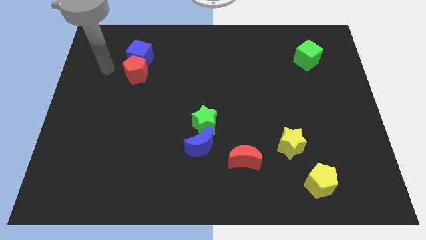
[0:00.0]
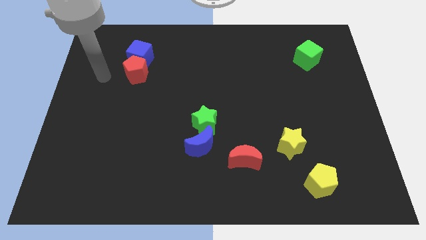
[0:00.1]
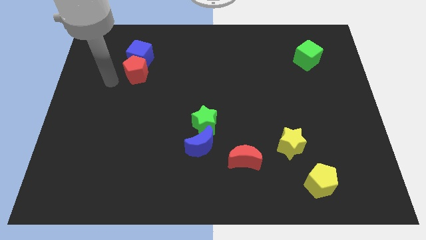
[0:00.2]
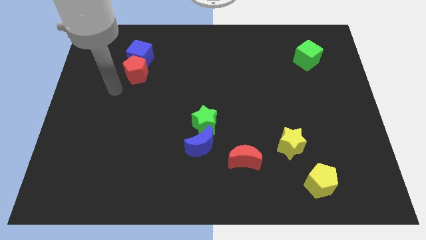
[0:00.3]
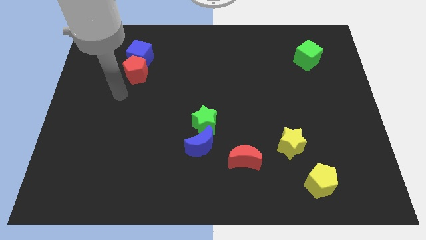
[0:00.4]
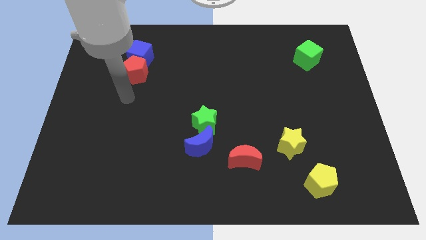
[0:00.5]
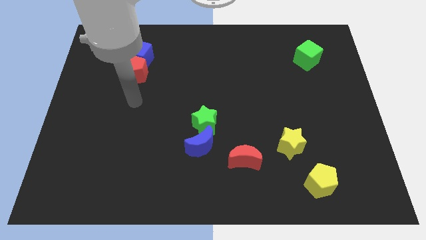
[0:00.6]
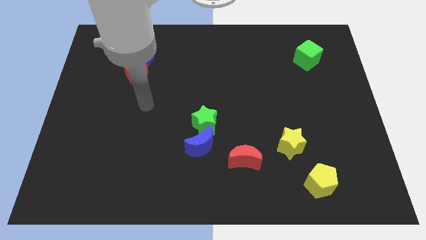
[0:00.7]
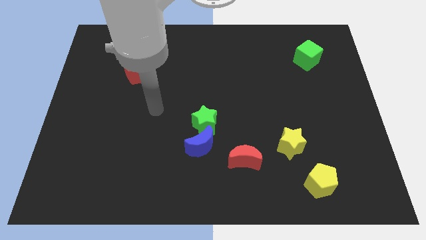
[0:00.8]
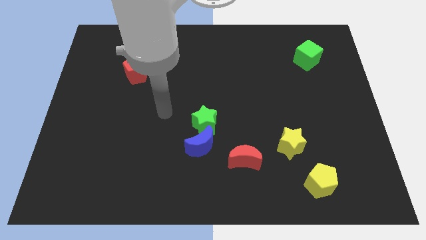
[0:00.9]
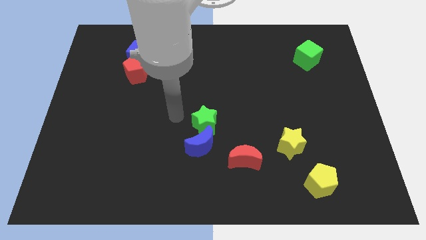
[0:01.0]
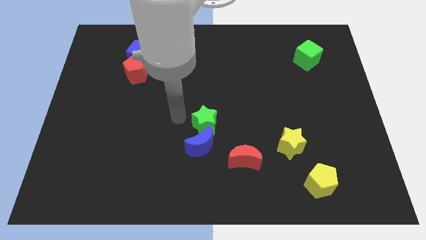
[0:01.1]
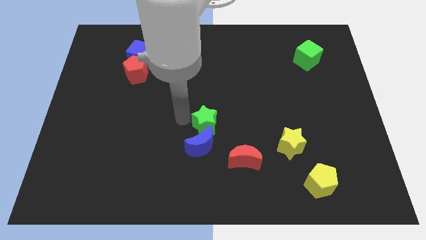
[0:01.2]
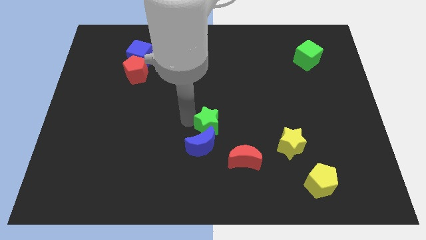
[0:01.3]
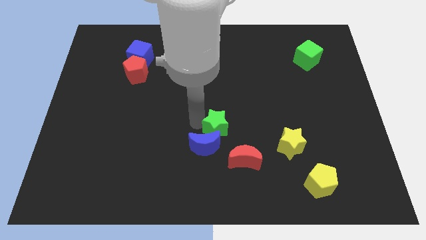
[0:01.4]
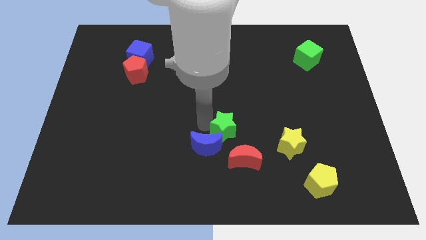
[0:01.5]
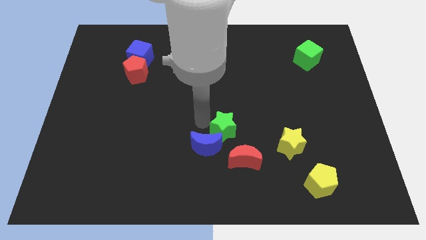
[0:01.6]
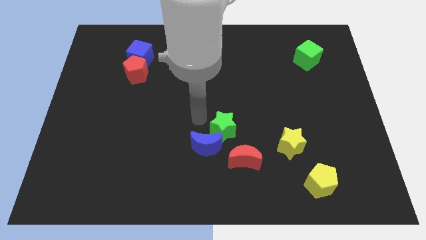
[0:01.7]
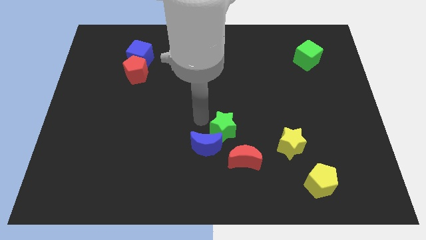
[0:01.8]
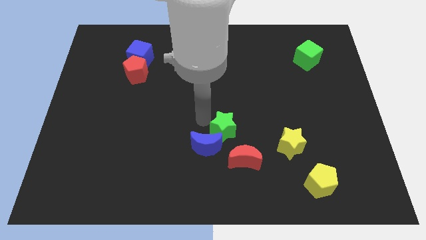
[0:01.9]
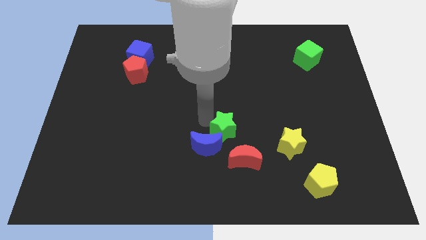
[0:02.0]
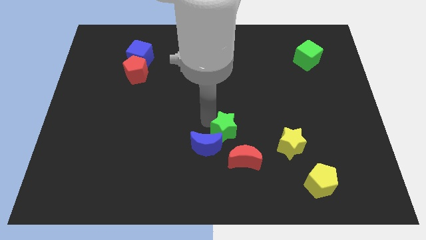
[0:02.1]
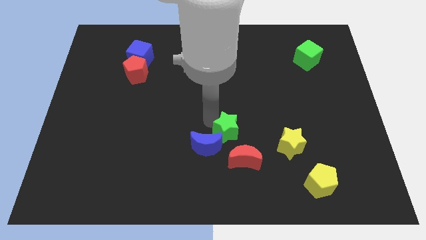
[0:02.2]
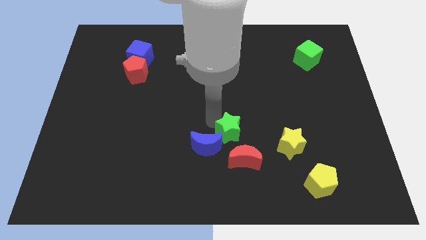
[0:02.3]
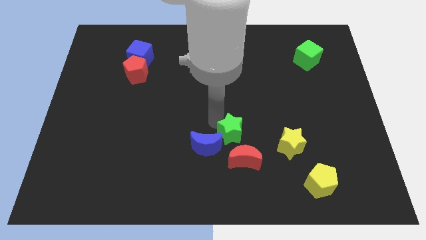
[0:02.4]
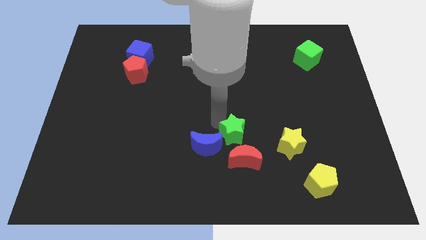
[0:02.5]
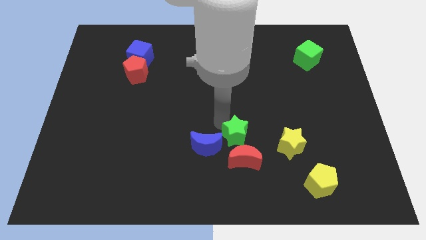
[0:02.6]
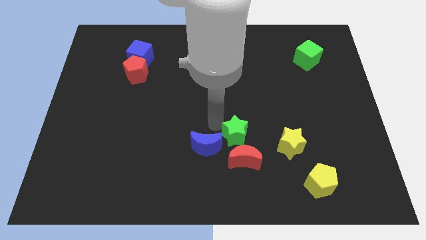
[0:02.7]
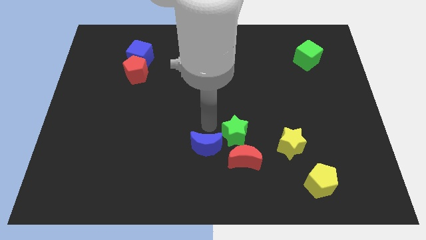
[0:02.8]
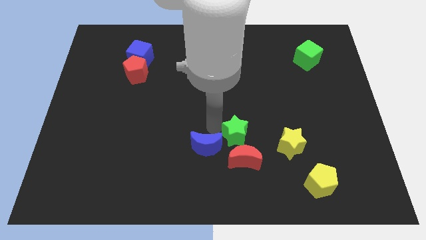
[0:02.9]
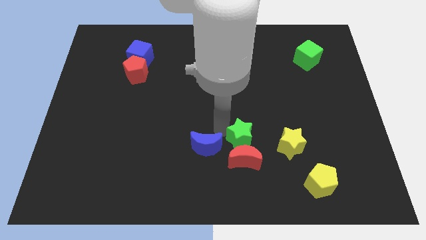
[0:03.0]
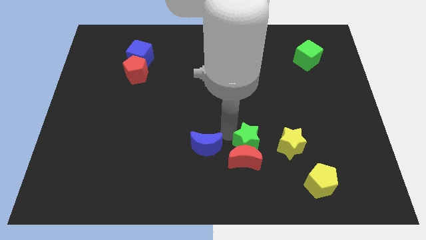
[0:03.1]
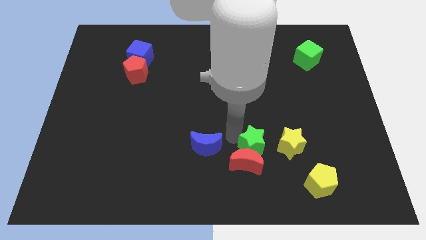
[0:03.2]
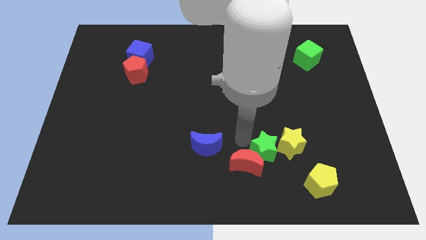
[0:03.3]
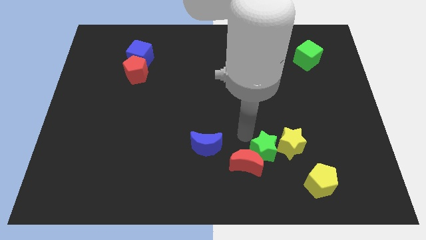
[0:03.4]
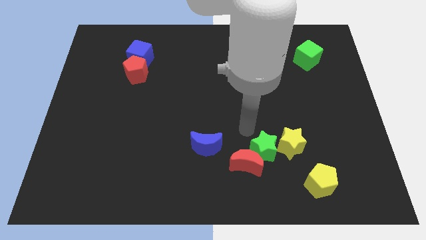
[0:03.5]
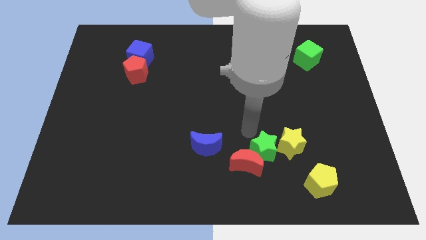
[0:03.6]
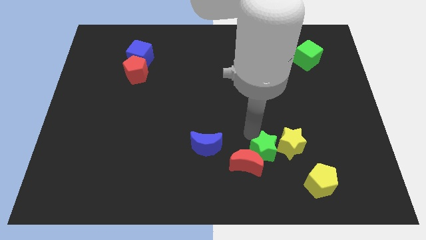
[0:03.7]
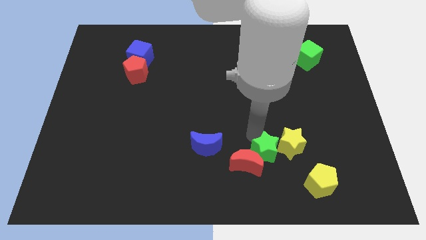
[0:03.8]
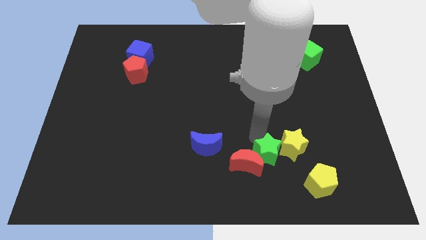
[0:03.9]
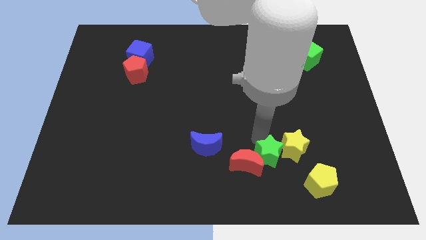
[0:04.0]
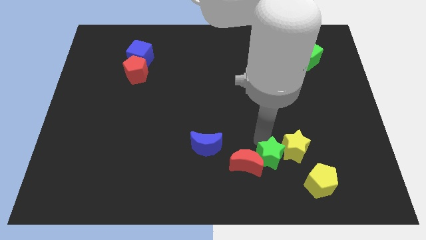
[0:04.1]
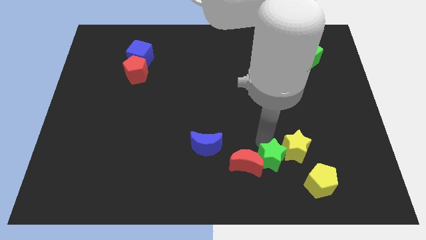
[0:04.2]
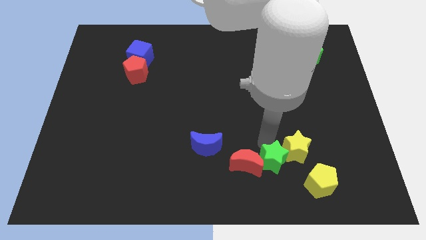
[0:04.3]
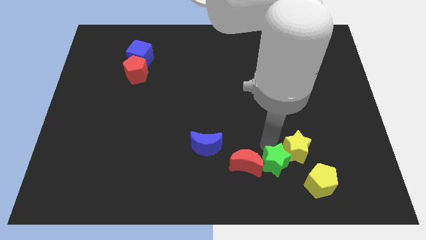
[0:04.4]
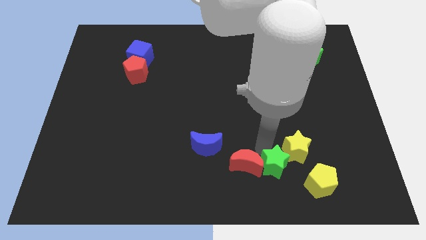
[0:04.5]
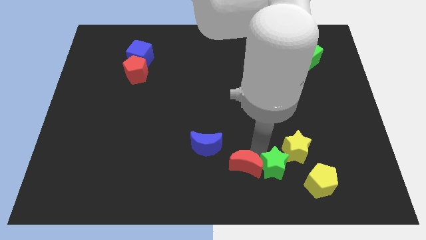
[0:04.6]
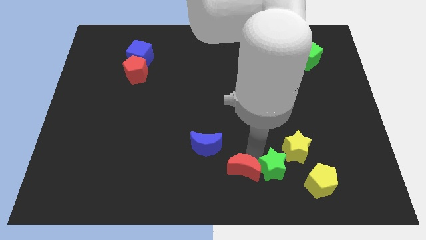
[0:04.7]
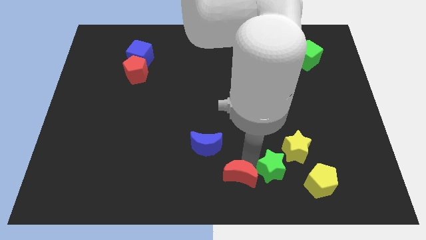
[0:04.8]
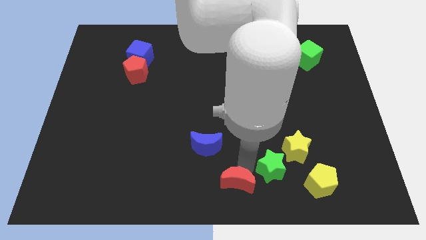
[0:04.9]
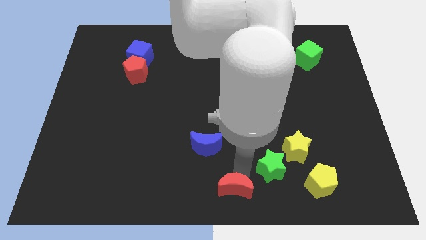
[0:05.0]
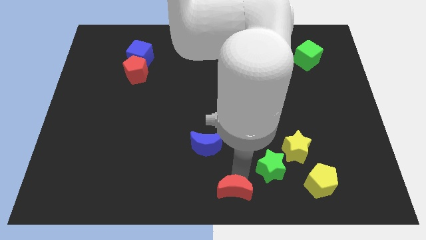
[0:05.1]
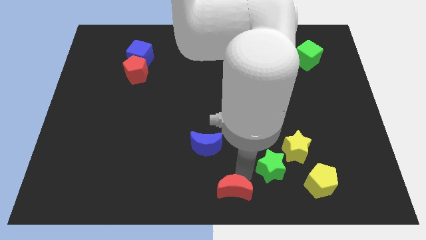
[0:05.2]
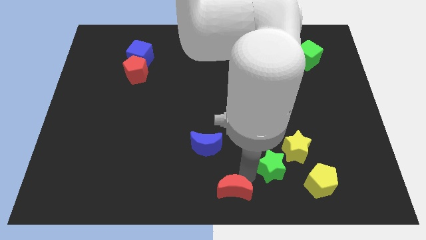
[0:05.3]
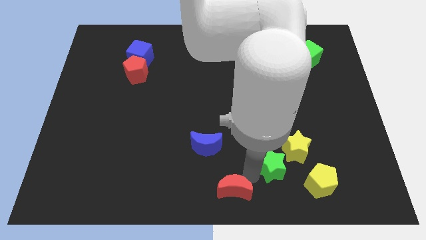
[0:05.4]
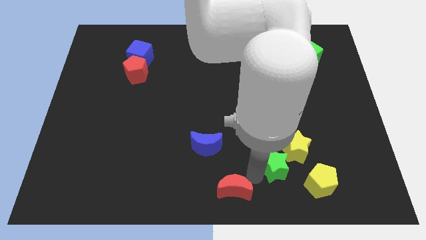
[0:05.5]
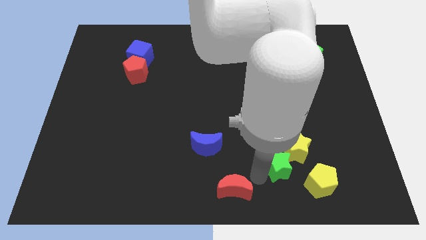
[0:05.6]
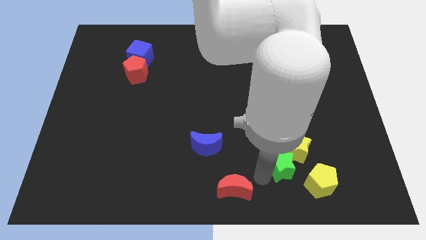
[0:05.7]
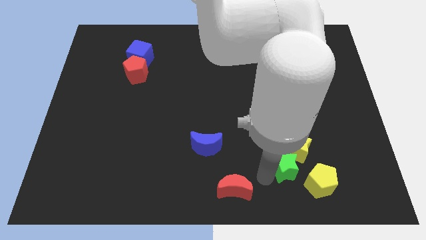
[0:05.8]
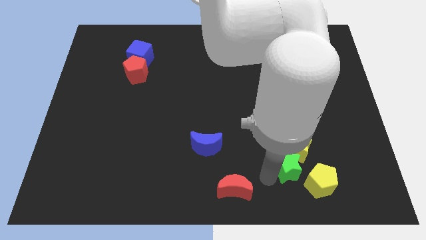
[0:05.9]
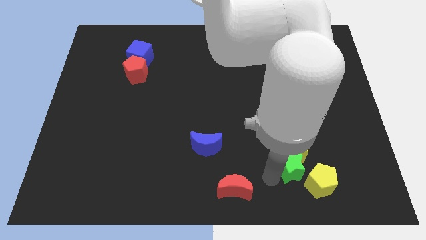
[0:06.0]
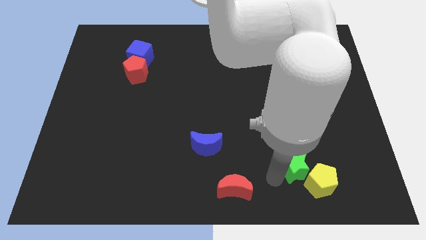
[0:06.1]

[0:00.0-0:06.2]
put the green star towards the yellow pentagon

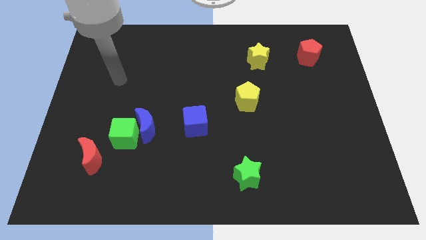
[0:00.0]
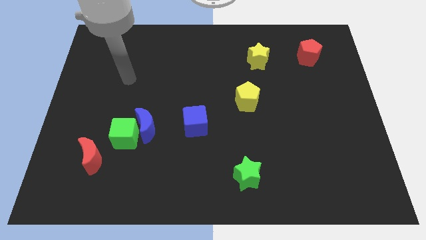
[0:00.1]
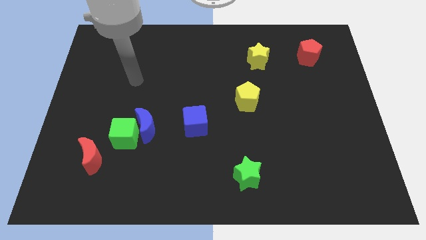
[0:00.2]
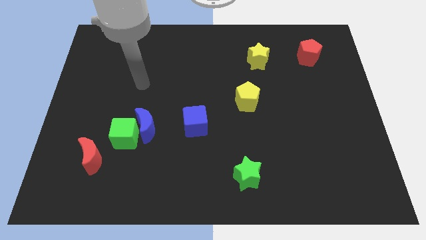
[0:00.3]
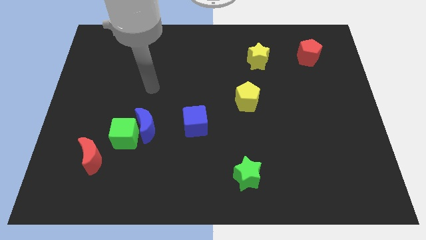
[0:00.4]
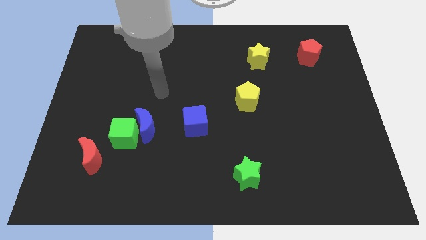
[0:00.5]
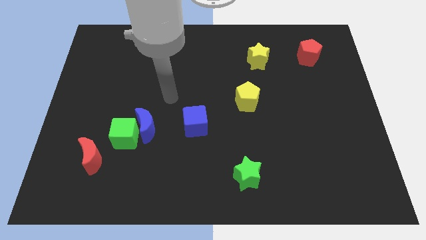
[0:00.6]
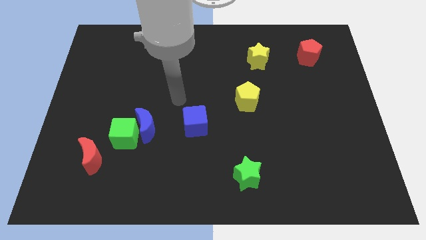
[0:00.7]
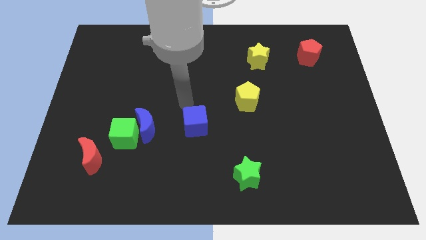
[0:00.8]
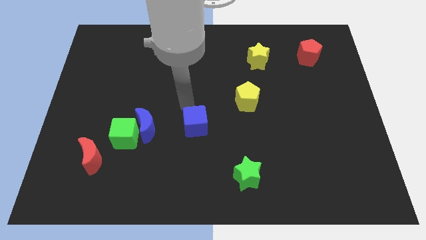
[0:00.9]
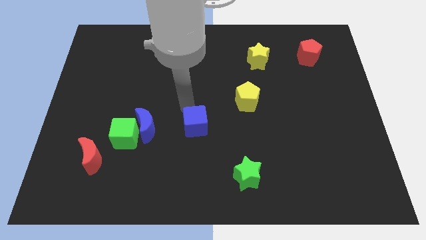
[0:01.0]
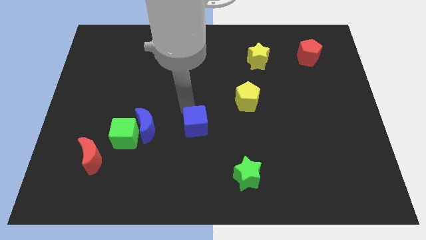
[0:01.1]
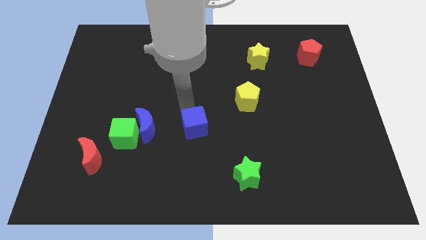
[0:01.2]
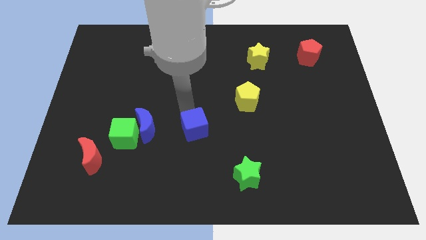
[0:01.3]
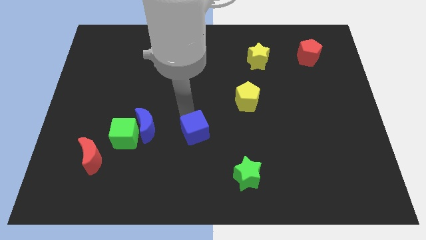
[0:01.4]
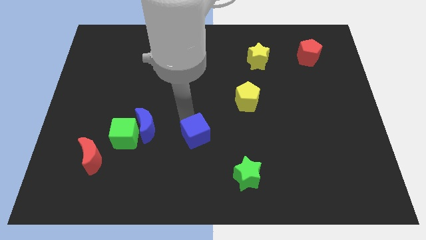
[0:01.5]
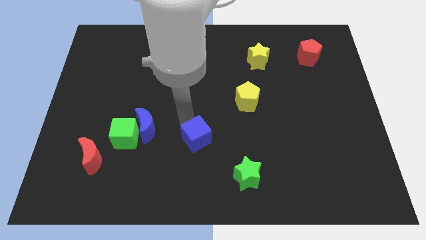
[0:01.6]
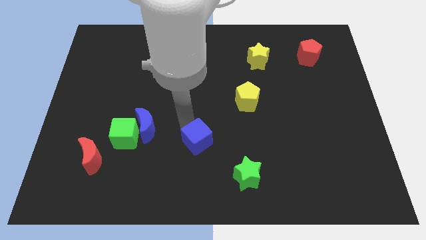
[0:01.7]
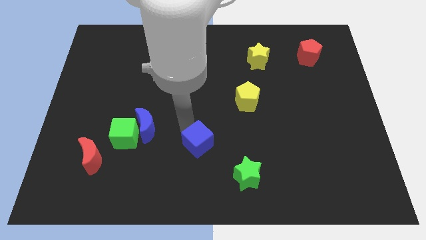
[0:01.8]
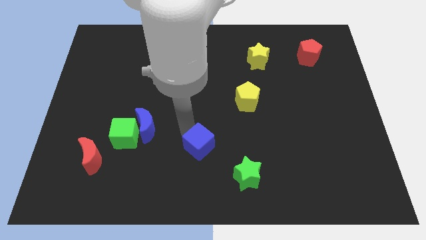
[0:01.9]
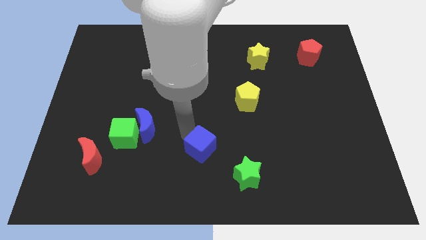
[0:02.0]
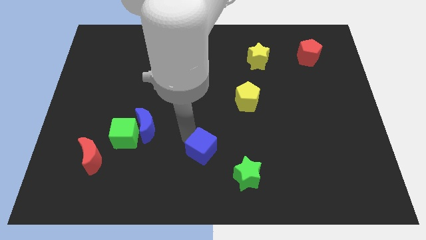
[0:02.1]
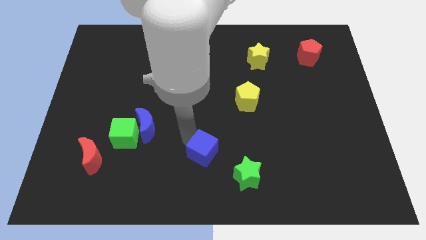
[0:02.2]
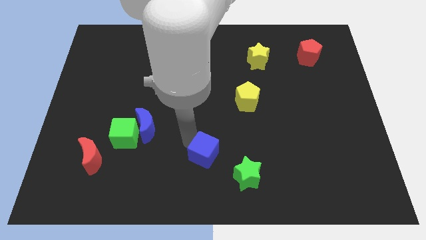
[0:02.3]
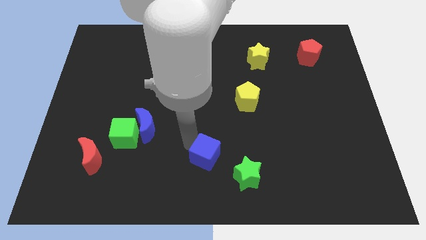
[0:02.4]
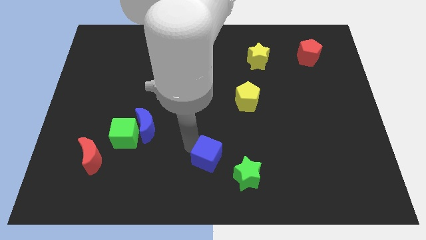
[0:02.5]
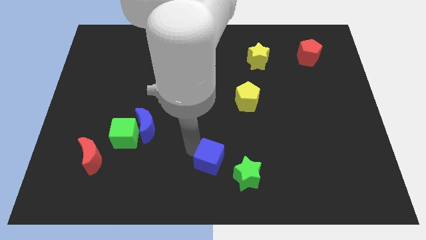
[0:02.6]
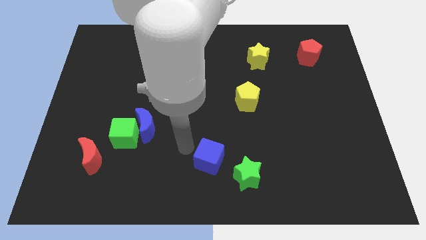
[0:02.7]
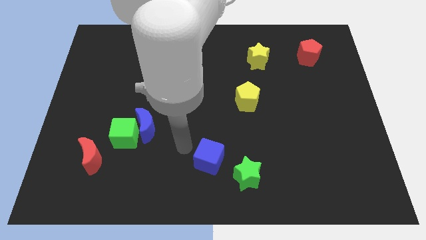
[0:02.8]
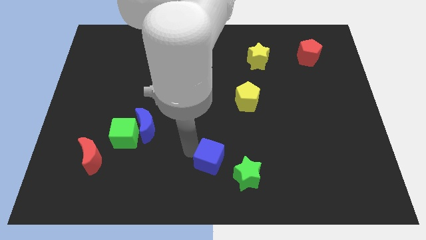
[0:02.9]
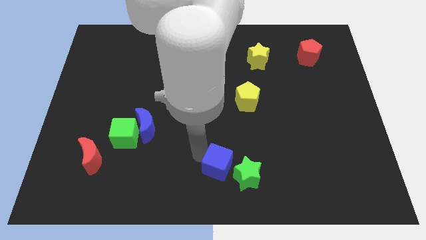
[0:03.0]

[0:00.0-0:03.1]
push the blue cube next to the green star
